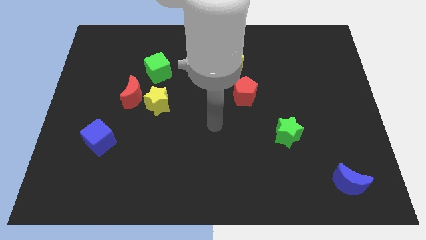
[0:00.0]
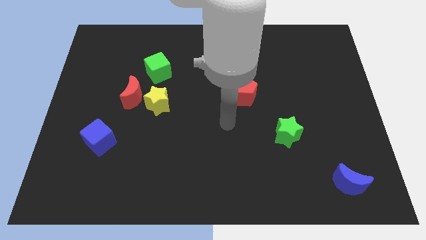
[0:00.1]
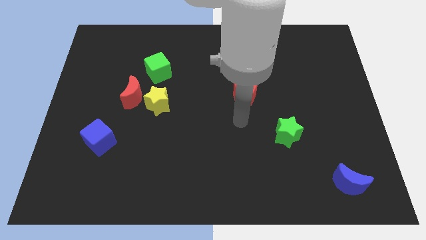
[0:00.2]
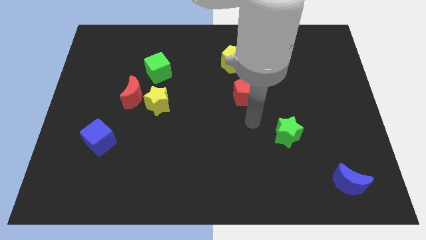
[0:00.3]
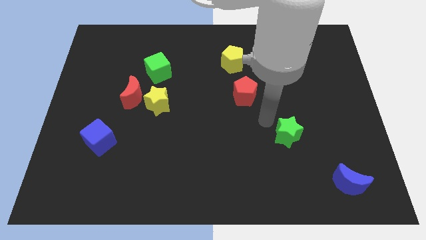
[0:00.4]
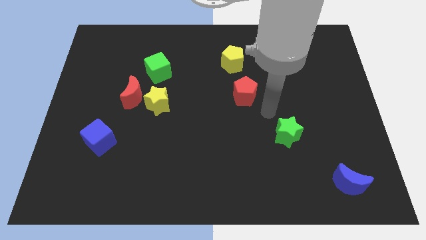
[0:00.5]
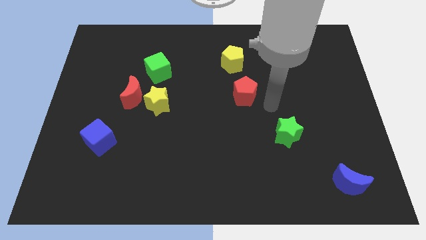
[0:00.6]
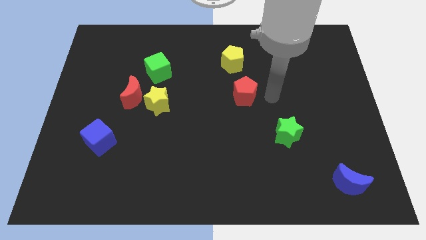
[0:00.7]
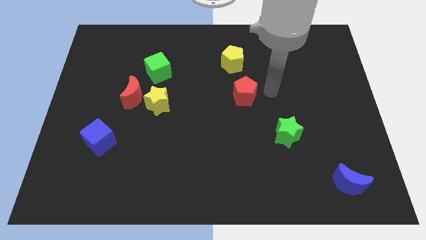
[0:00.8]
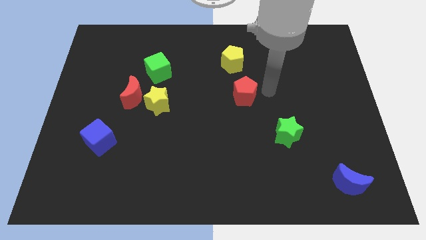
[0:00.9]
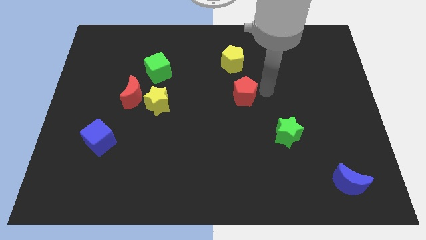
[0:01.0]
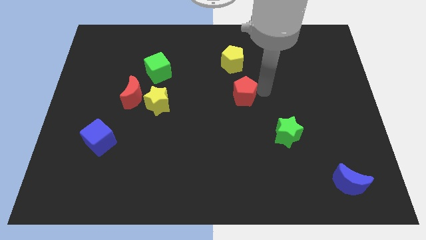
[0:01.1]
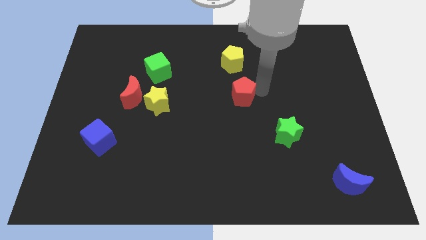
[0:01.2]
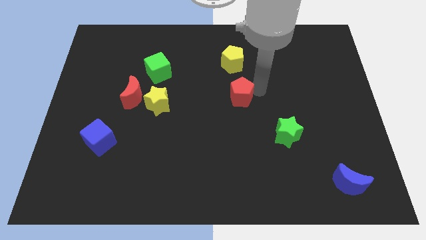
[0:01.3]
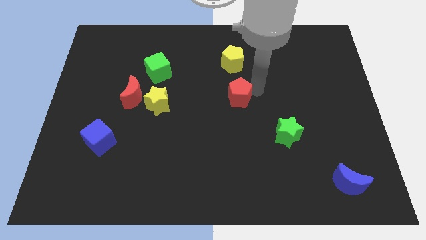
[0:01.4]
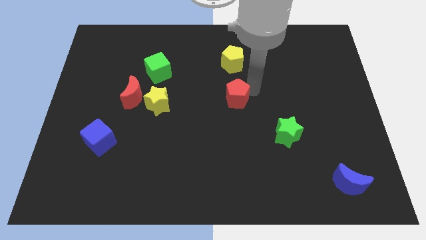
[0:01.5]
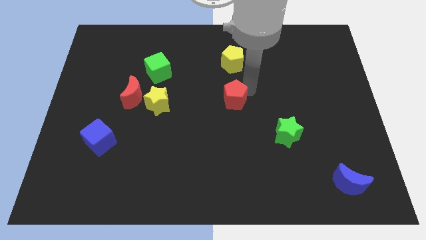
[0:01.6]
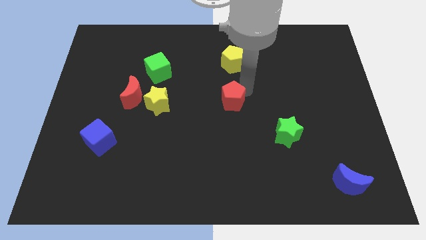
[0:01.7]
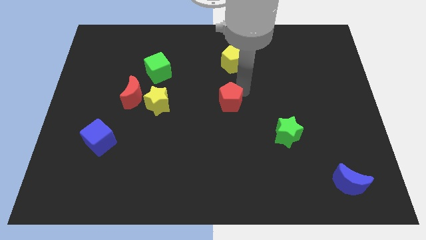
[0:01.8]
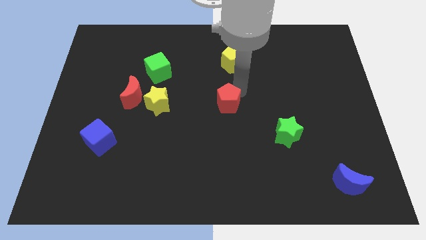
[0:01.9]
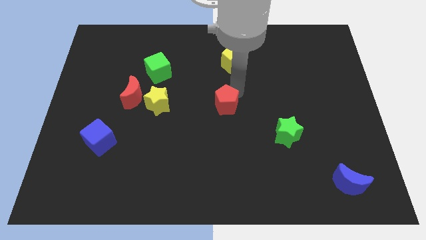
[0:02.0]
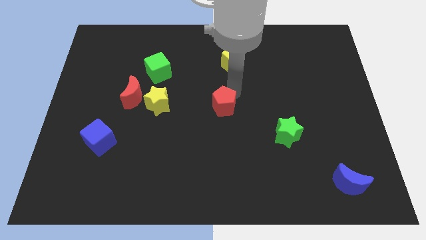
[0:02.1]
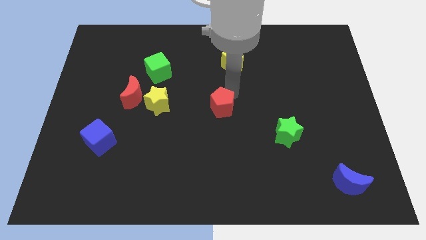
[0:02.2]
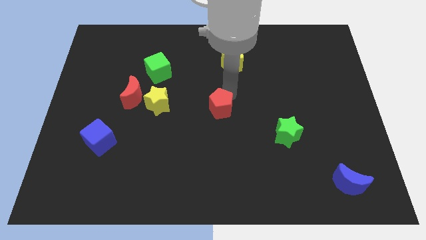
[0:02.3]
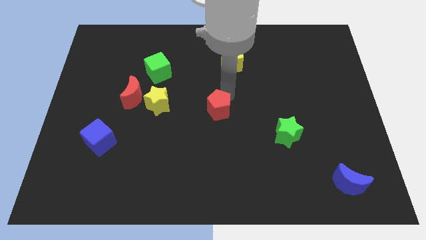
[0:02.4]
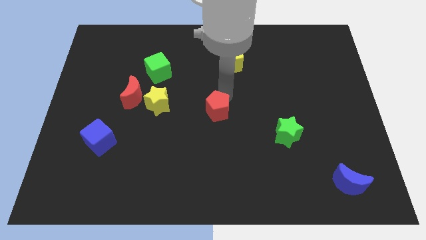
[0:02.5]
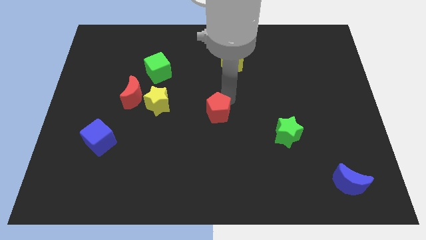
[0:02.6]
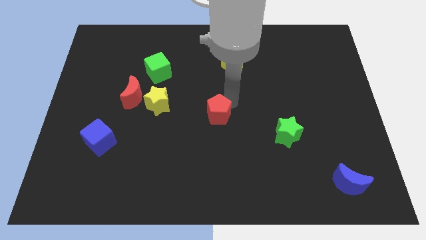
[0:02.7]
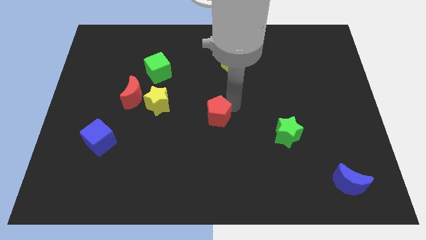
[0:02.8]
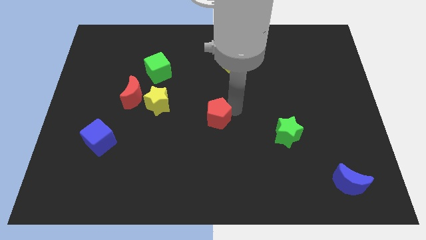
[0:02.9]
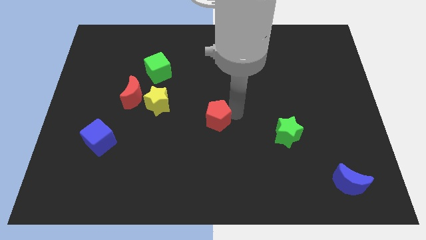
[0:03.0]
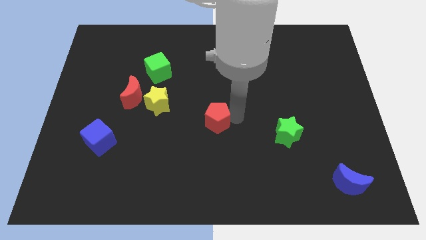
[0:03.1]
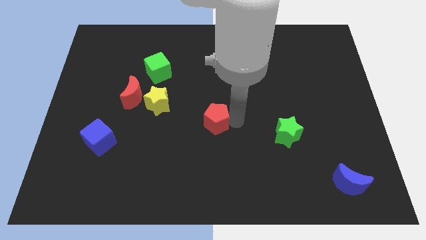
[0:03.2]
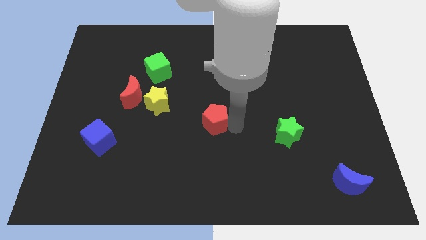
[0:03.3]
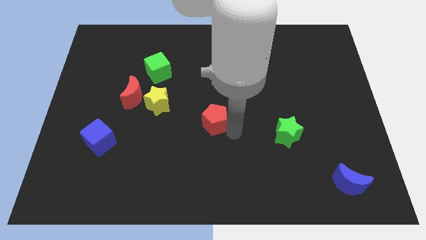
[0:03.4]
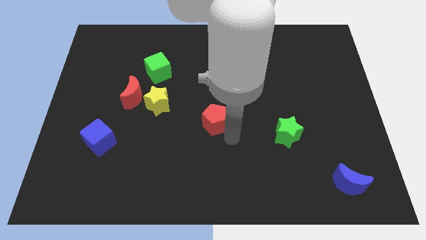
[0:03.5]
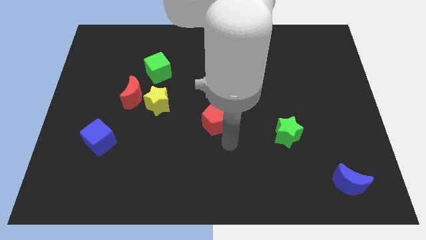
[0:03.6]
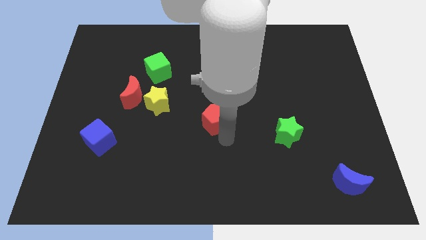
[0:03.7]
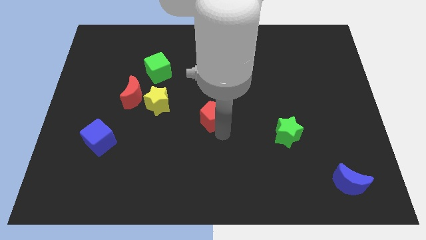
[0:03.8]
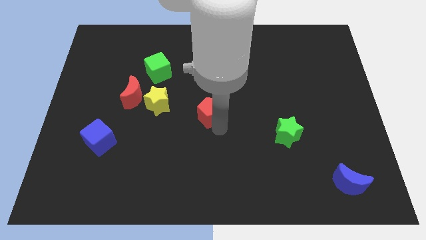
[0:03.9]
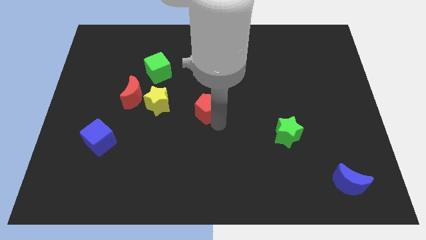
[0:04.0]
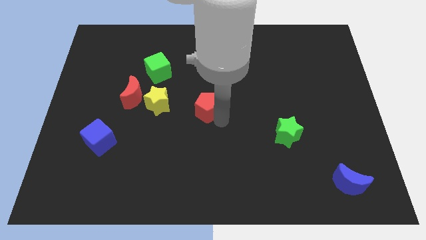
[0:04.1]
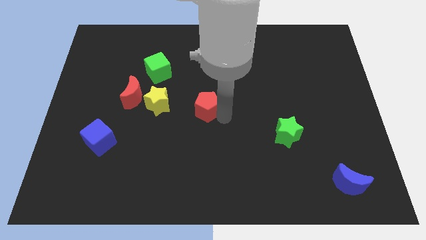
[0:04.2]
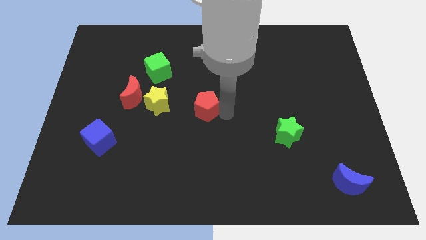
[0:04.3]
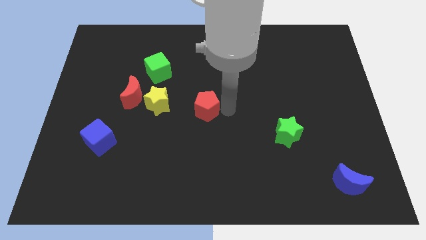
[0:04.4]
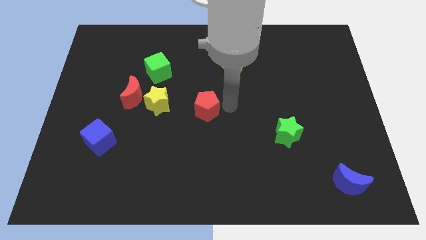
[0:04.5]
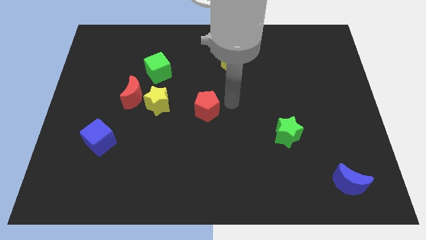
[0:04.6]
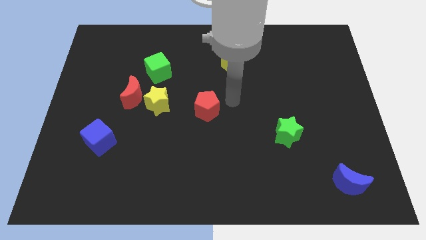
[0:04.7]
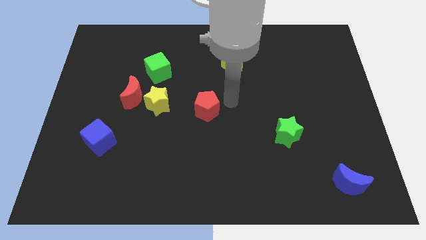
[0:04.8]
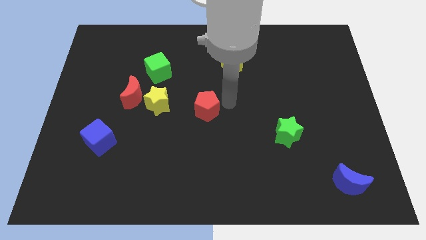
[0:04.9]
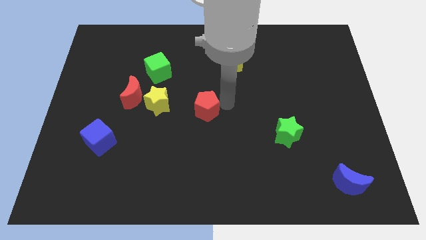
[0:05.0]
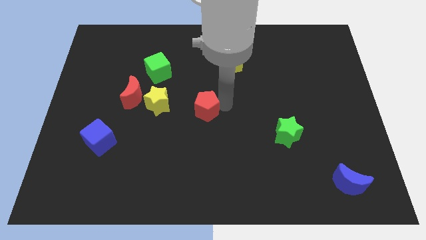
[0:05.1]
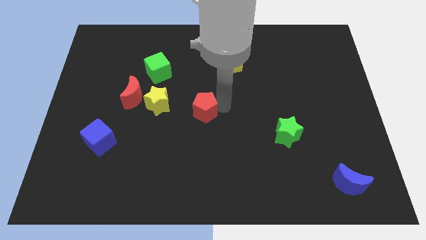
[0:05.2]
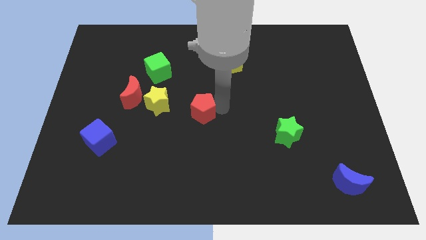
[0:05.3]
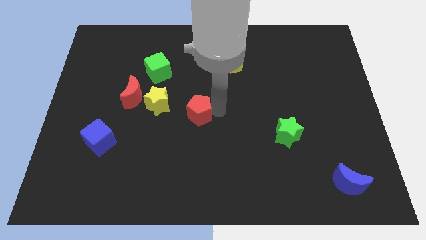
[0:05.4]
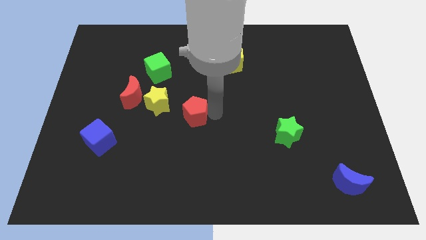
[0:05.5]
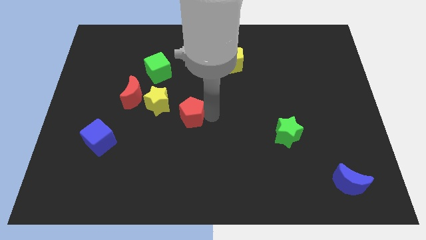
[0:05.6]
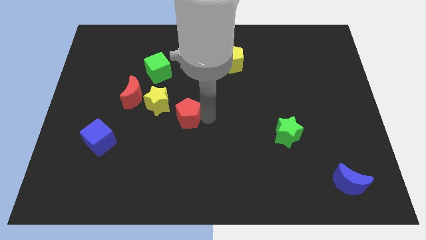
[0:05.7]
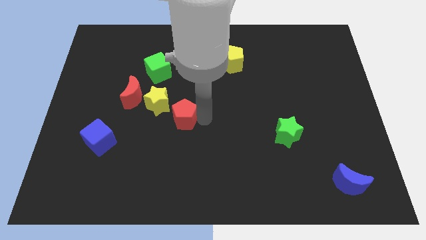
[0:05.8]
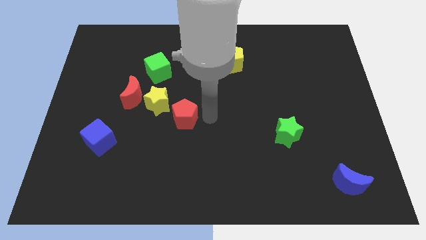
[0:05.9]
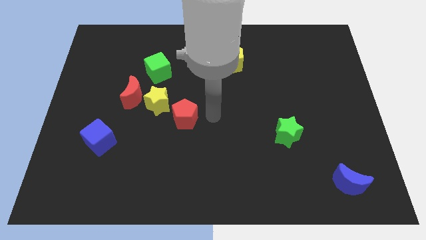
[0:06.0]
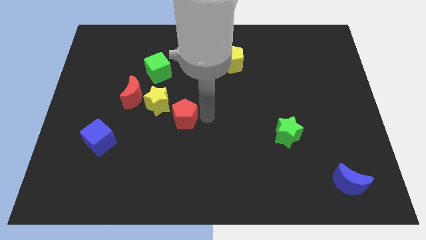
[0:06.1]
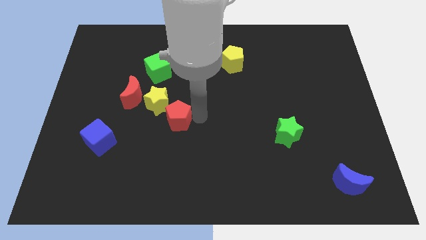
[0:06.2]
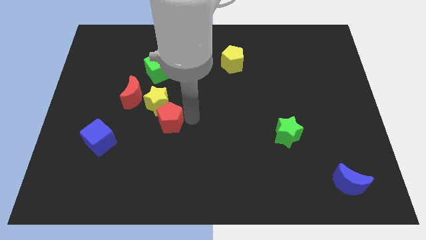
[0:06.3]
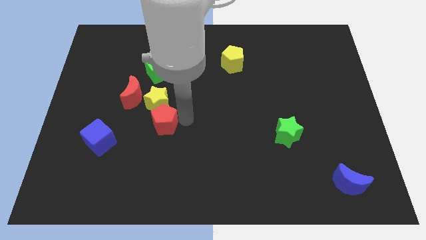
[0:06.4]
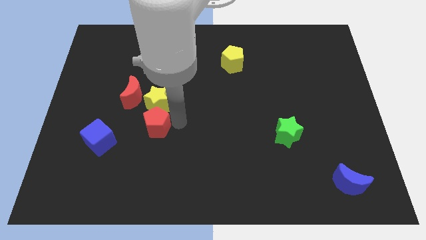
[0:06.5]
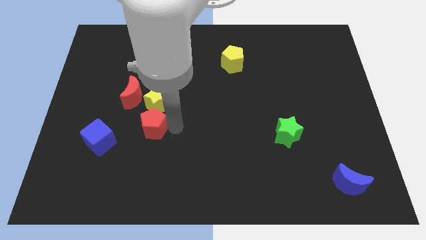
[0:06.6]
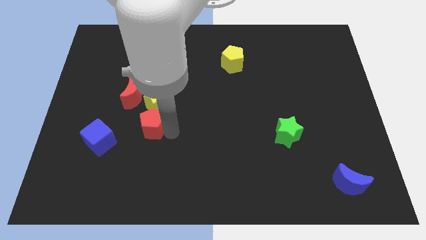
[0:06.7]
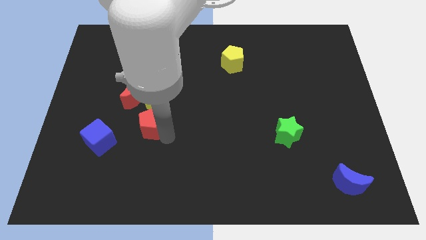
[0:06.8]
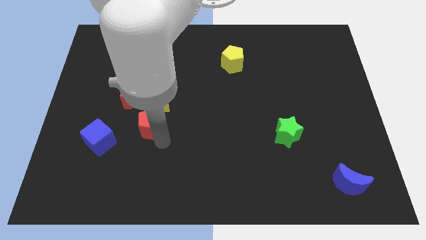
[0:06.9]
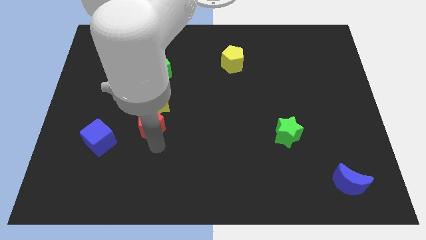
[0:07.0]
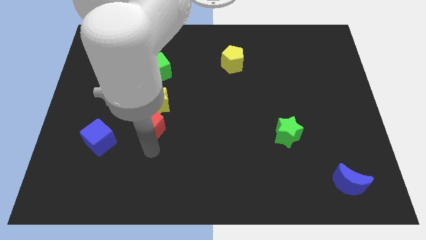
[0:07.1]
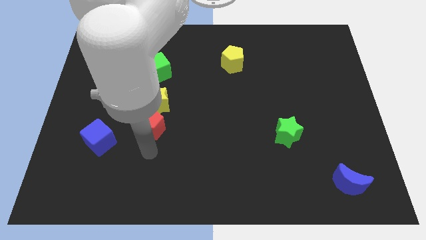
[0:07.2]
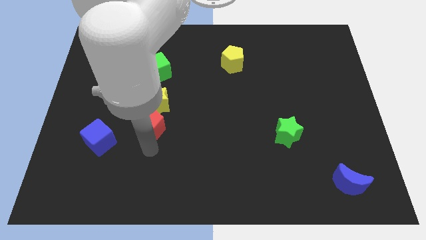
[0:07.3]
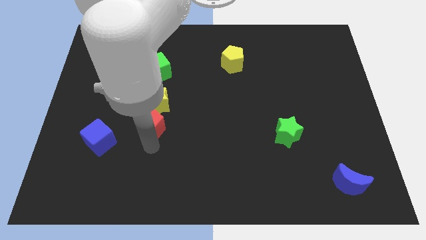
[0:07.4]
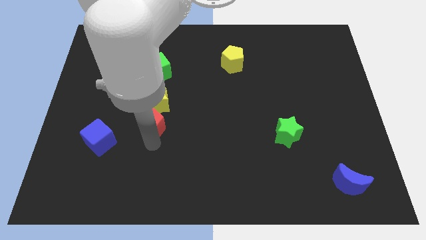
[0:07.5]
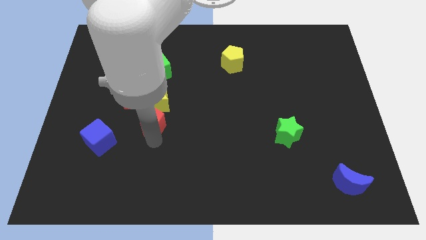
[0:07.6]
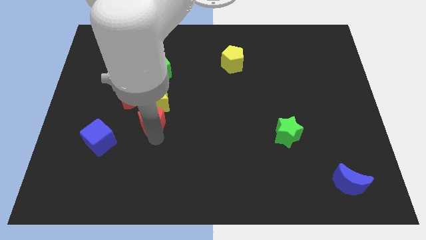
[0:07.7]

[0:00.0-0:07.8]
move the red pentagon below the green cube
